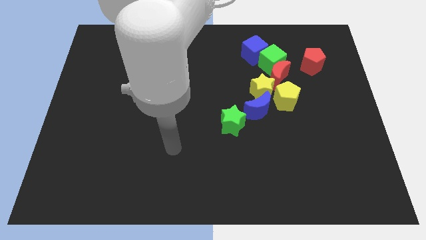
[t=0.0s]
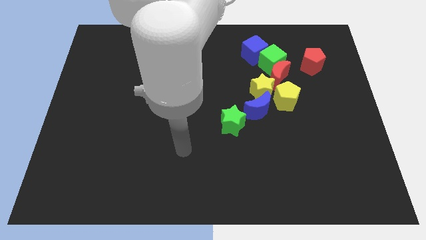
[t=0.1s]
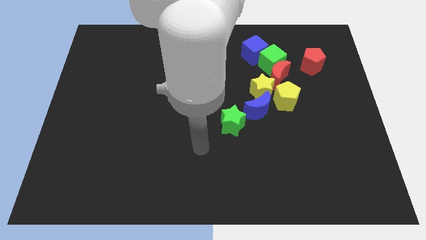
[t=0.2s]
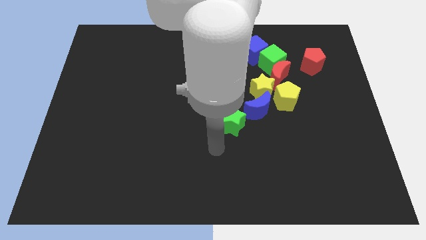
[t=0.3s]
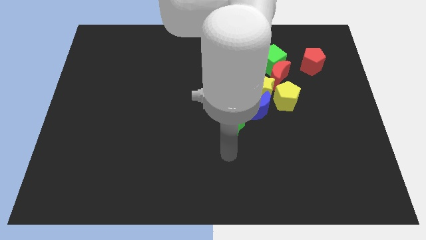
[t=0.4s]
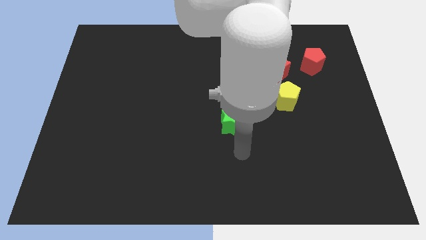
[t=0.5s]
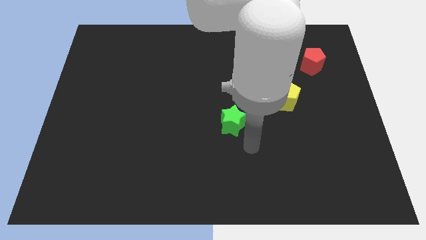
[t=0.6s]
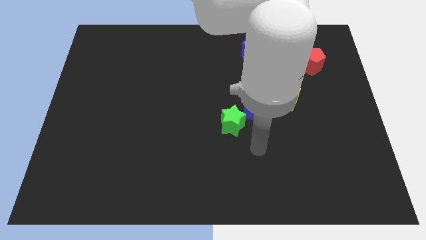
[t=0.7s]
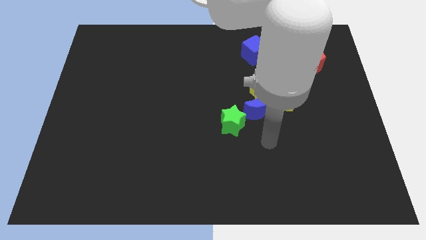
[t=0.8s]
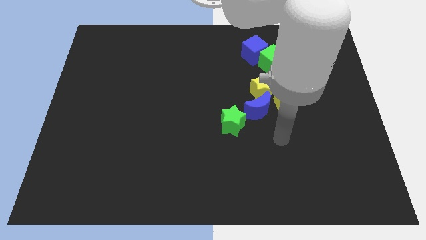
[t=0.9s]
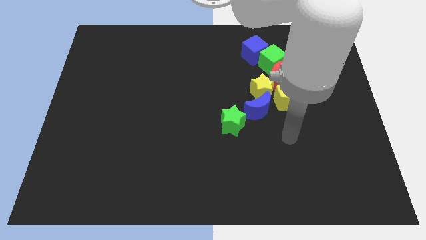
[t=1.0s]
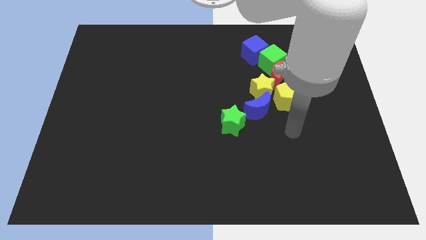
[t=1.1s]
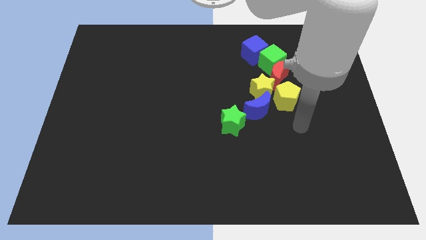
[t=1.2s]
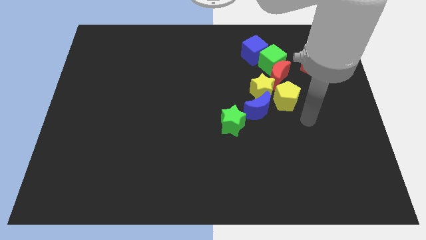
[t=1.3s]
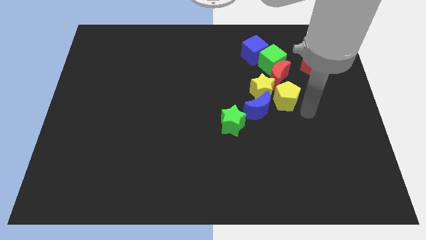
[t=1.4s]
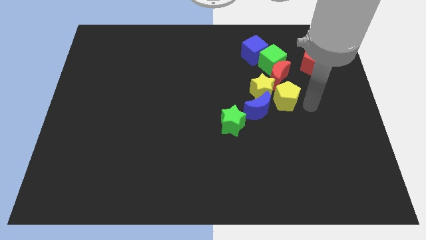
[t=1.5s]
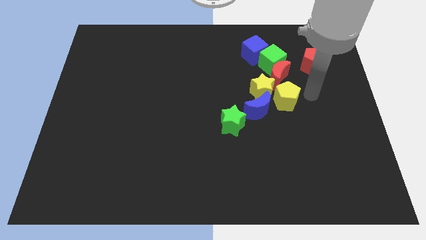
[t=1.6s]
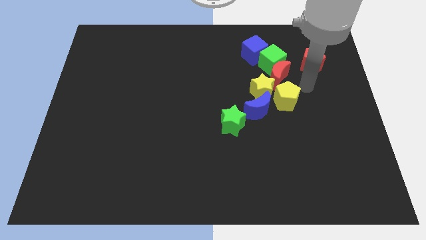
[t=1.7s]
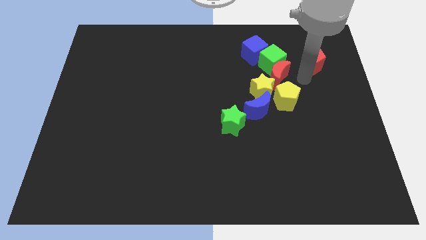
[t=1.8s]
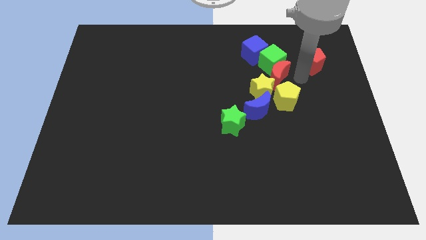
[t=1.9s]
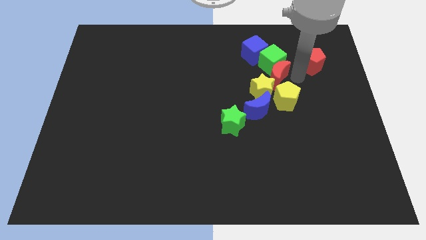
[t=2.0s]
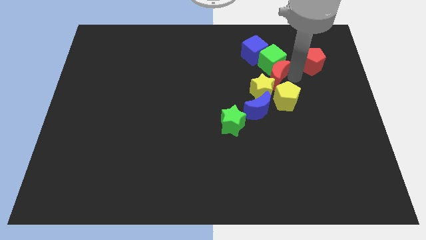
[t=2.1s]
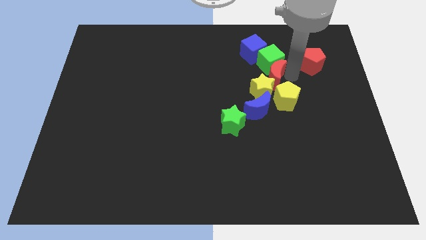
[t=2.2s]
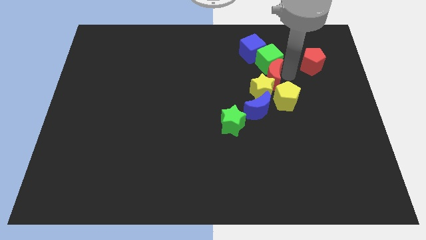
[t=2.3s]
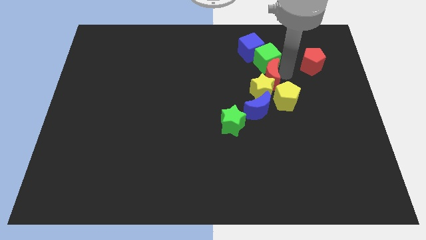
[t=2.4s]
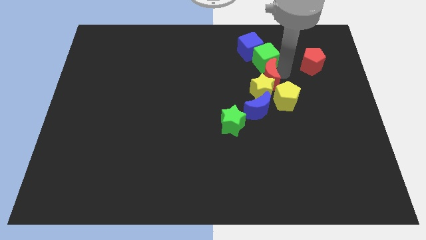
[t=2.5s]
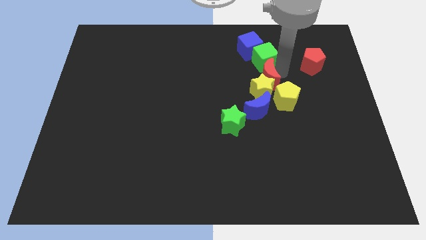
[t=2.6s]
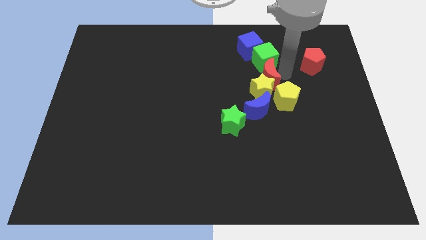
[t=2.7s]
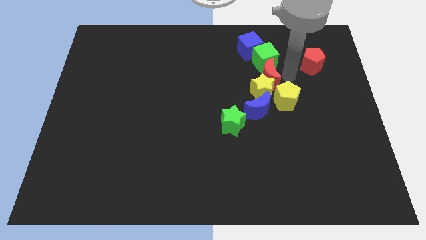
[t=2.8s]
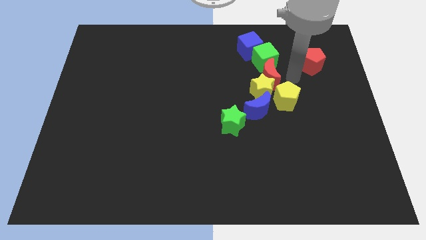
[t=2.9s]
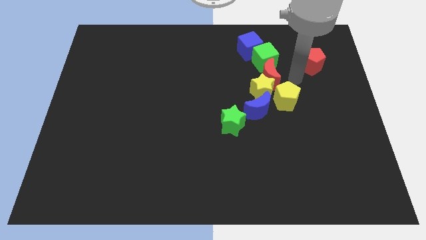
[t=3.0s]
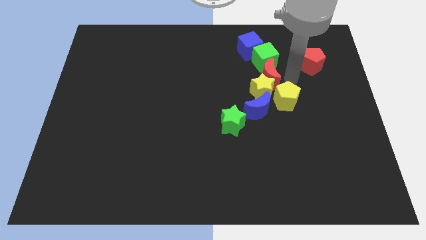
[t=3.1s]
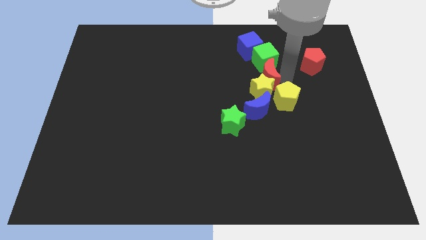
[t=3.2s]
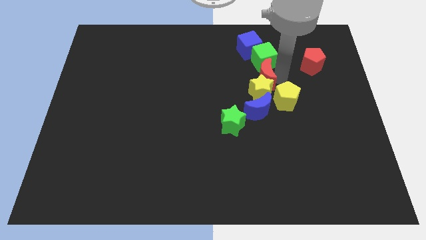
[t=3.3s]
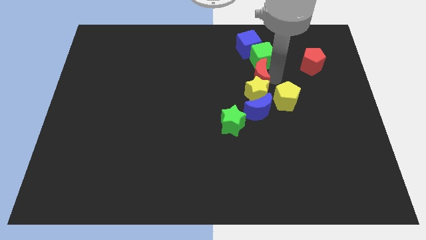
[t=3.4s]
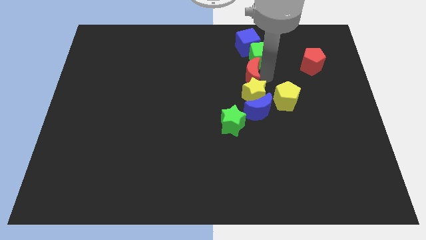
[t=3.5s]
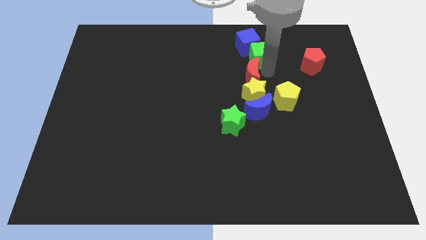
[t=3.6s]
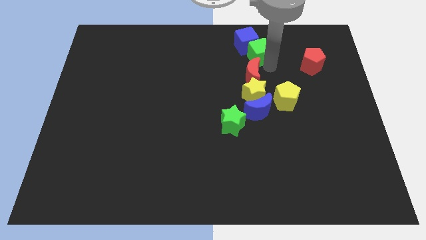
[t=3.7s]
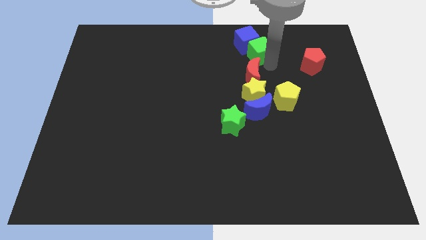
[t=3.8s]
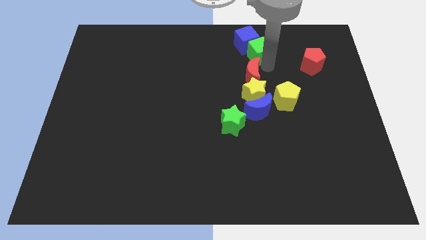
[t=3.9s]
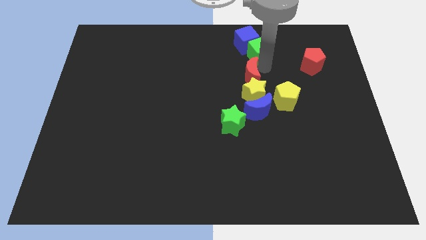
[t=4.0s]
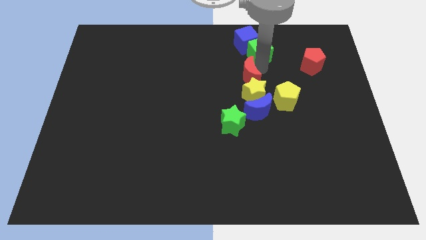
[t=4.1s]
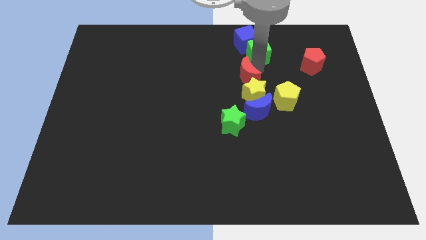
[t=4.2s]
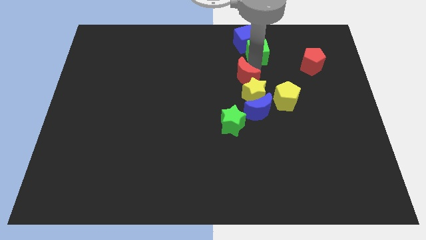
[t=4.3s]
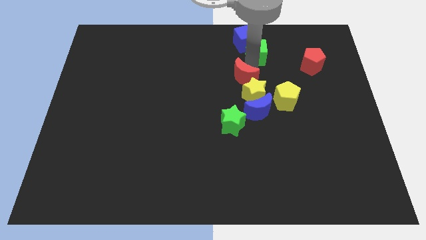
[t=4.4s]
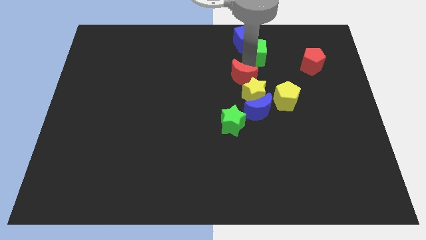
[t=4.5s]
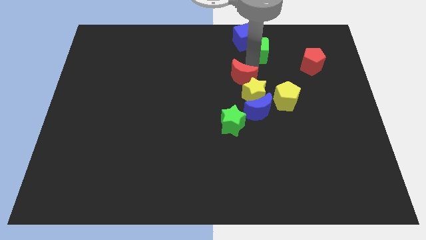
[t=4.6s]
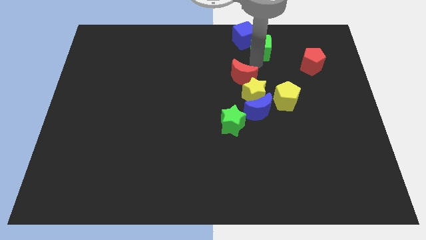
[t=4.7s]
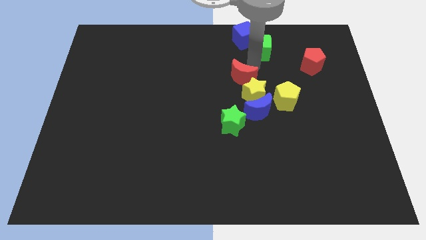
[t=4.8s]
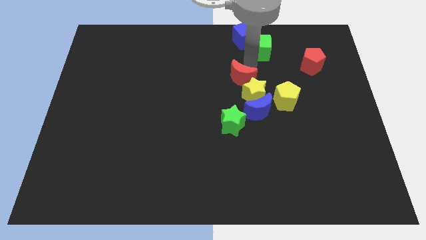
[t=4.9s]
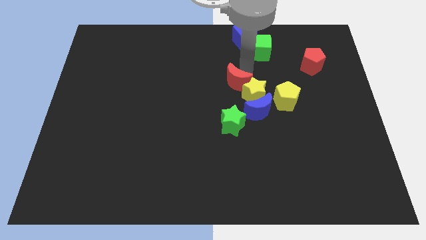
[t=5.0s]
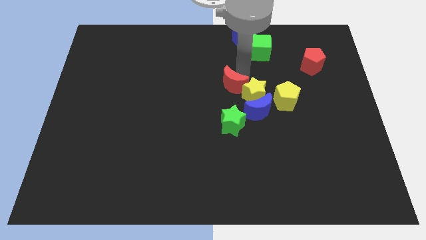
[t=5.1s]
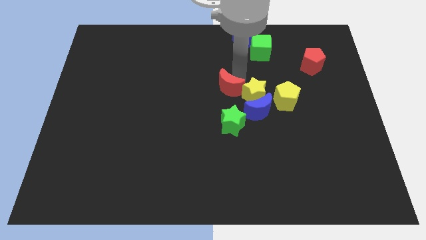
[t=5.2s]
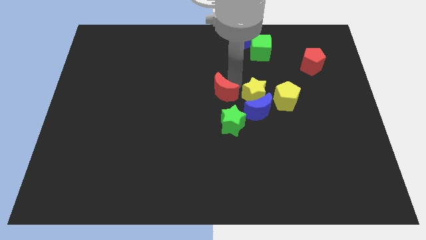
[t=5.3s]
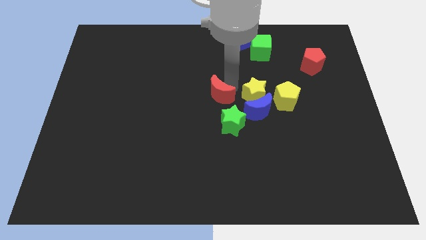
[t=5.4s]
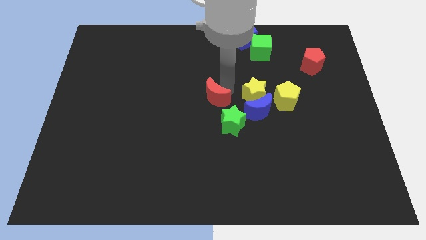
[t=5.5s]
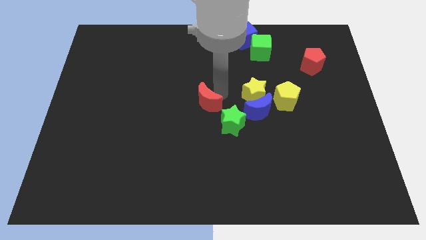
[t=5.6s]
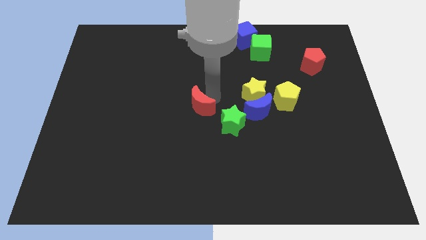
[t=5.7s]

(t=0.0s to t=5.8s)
move the red moon to the left side of the green star

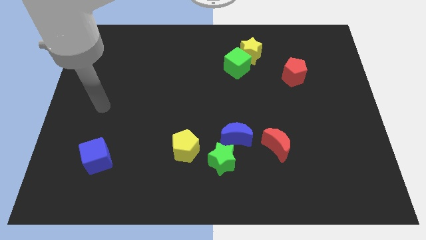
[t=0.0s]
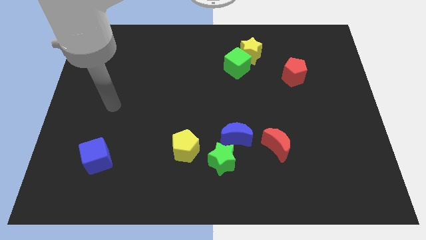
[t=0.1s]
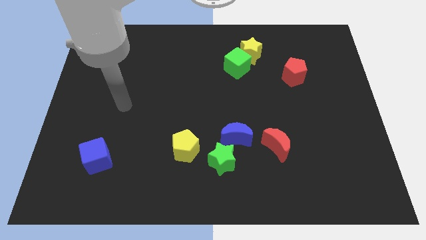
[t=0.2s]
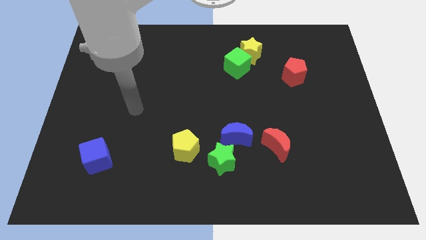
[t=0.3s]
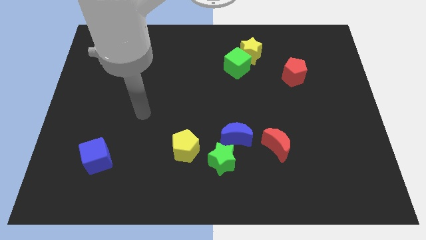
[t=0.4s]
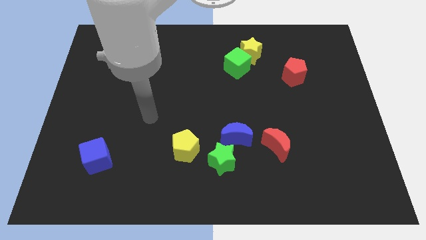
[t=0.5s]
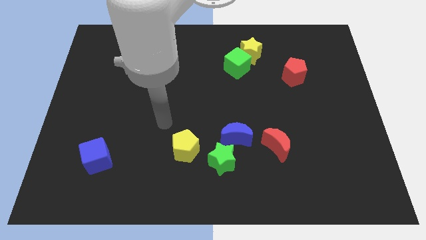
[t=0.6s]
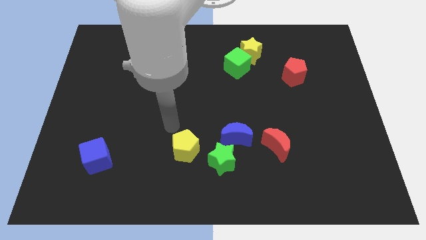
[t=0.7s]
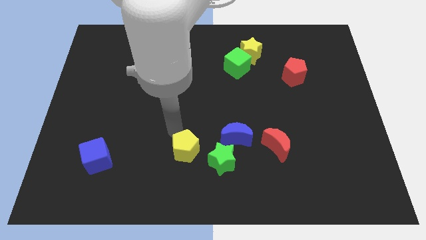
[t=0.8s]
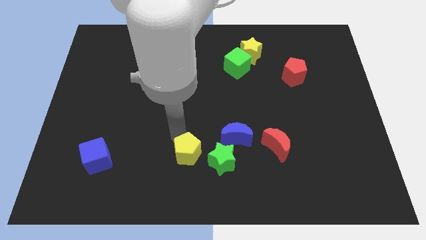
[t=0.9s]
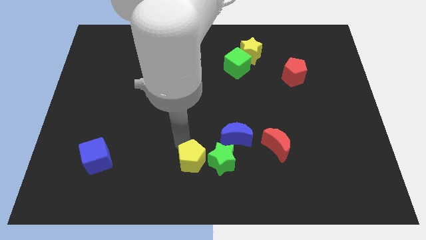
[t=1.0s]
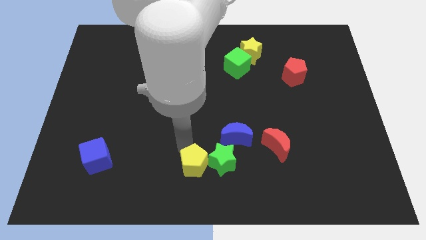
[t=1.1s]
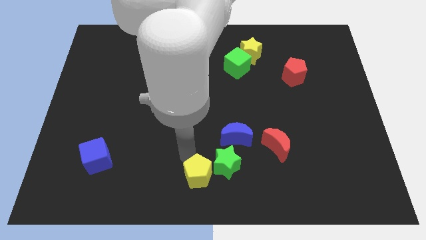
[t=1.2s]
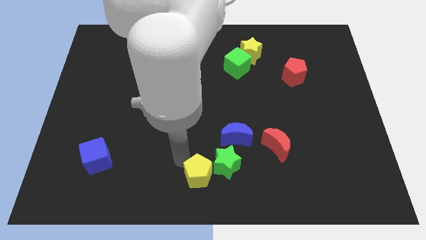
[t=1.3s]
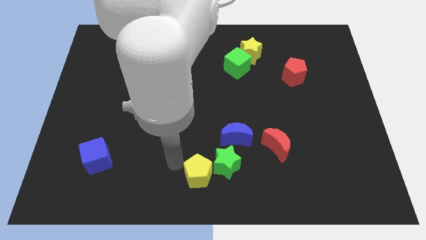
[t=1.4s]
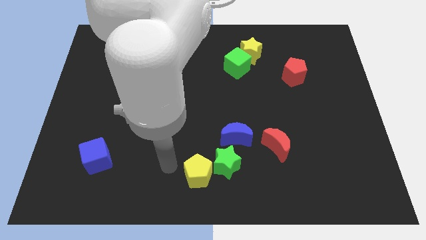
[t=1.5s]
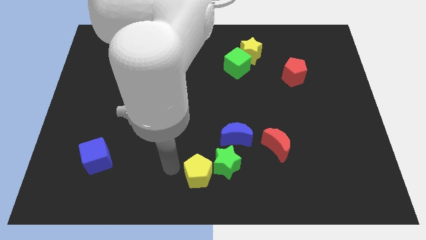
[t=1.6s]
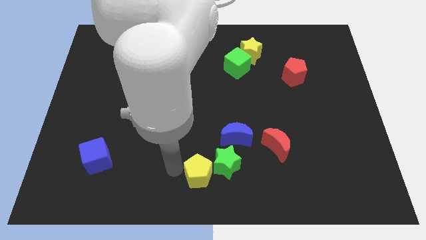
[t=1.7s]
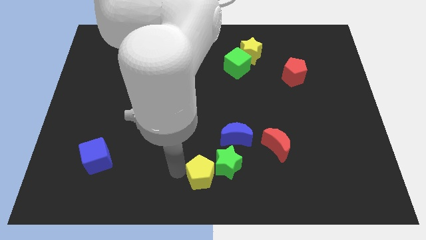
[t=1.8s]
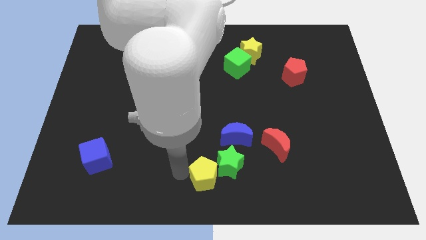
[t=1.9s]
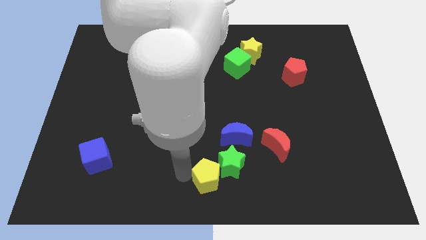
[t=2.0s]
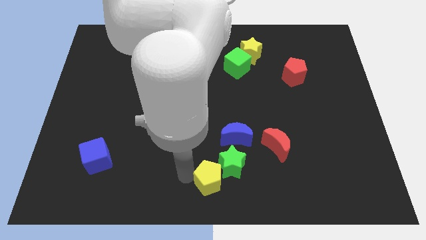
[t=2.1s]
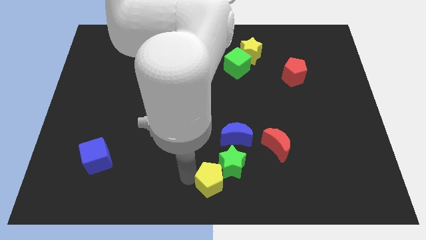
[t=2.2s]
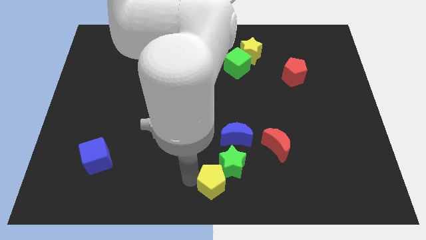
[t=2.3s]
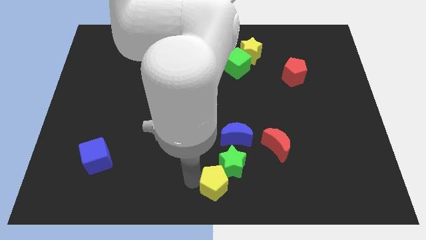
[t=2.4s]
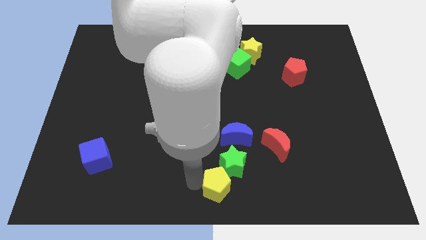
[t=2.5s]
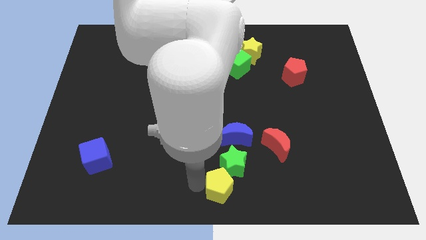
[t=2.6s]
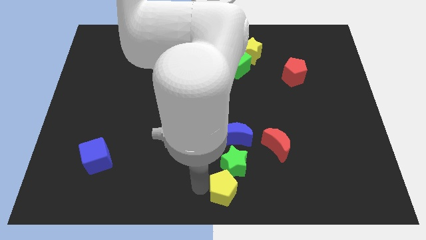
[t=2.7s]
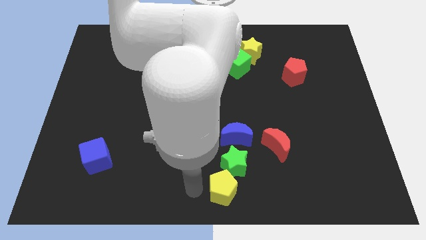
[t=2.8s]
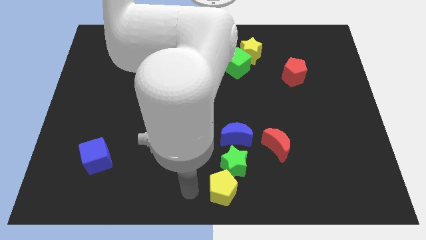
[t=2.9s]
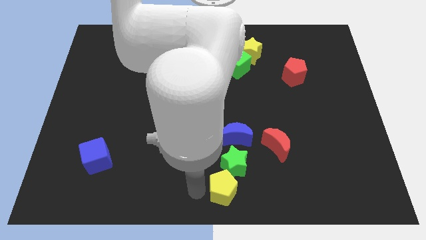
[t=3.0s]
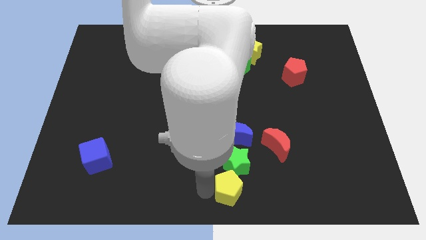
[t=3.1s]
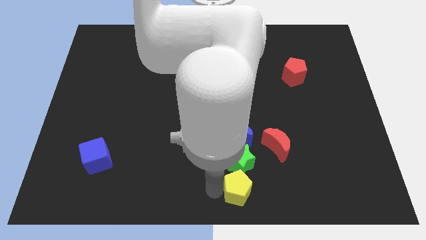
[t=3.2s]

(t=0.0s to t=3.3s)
push the yellow pentagon to the bottom right of the green star
